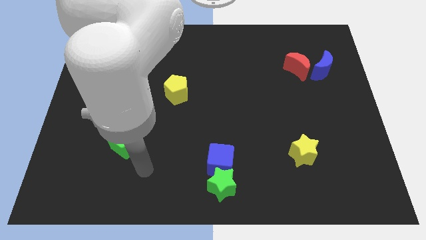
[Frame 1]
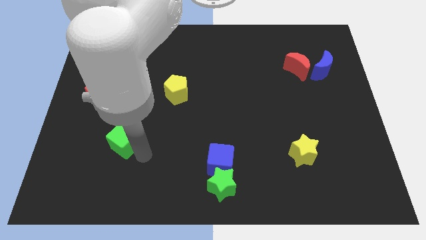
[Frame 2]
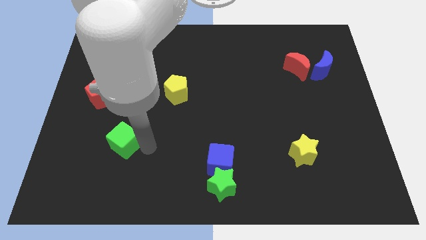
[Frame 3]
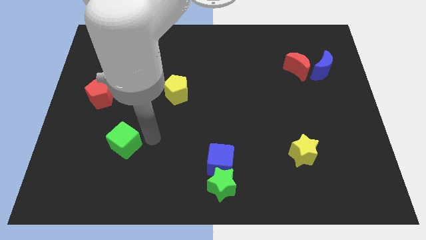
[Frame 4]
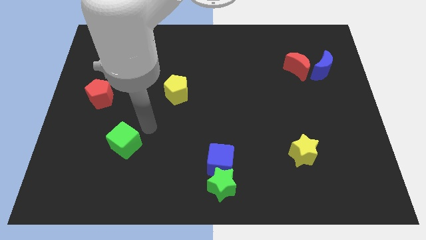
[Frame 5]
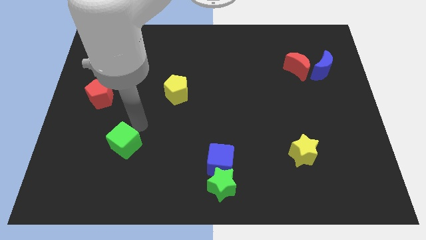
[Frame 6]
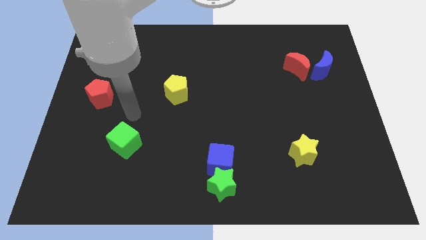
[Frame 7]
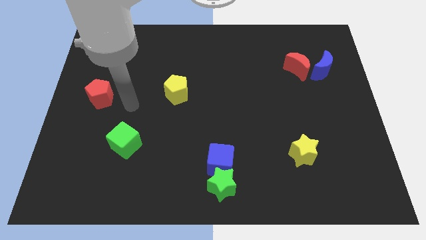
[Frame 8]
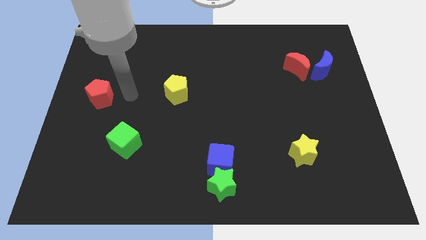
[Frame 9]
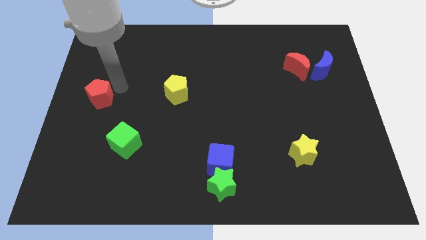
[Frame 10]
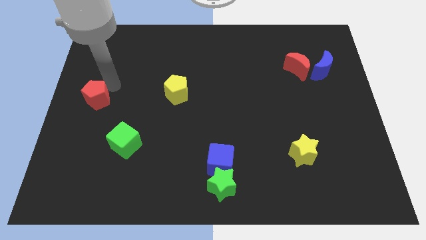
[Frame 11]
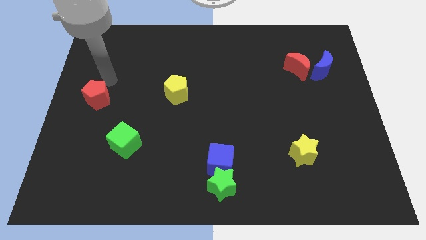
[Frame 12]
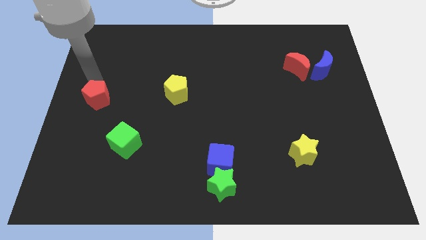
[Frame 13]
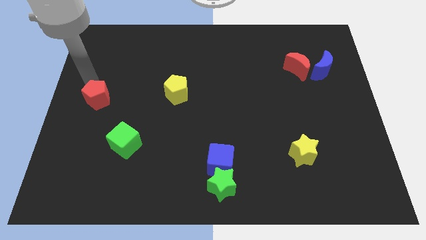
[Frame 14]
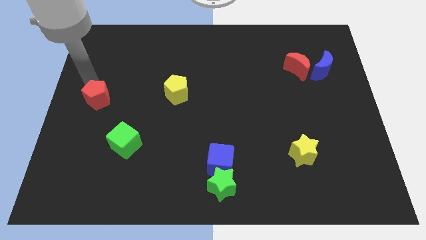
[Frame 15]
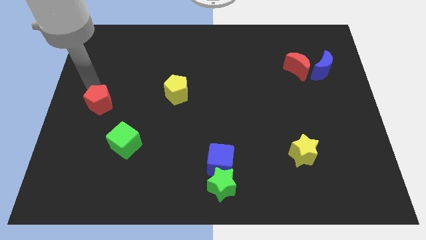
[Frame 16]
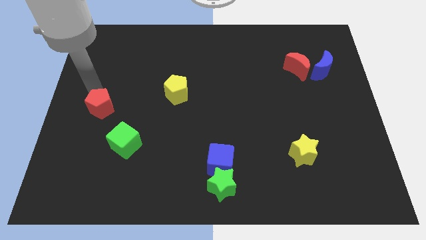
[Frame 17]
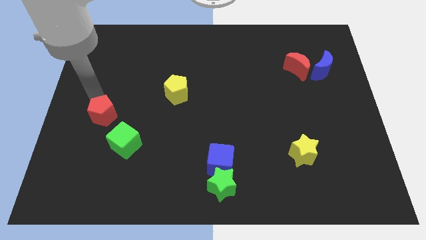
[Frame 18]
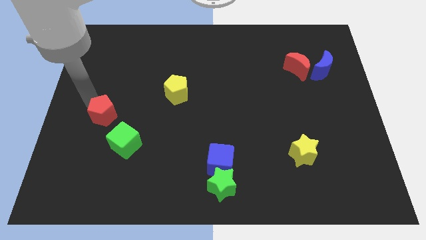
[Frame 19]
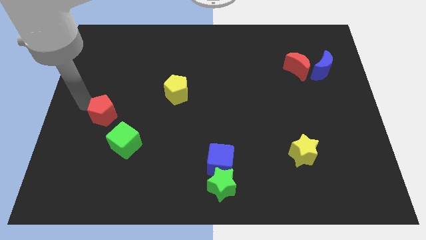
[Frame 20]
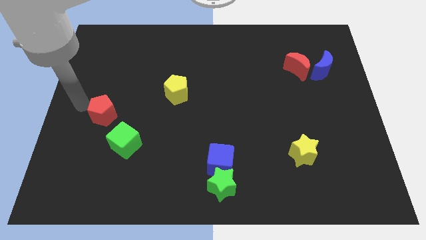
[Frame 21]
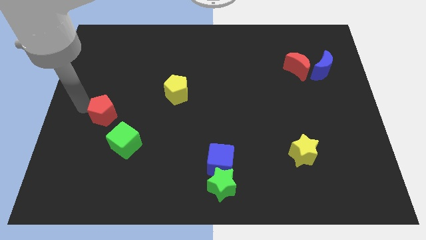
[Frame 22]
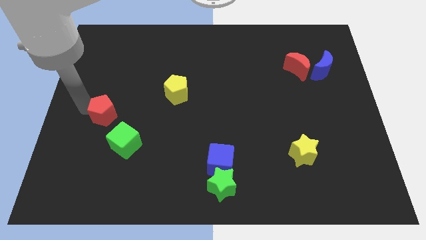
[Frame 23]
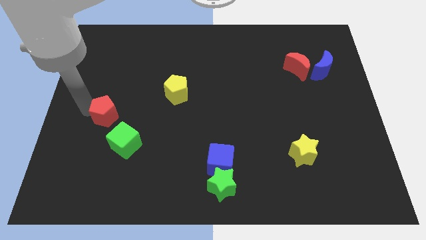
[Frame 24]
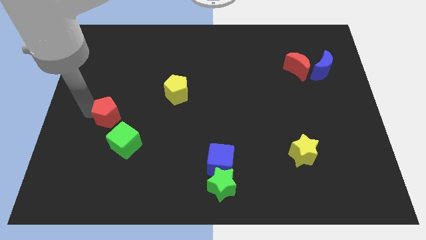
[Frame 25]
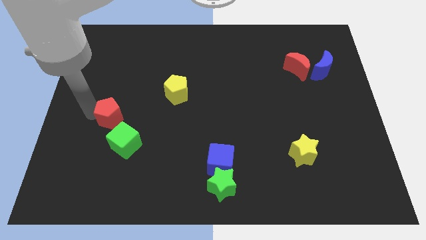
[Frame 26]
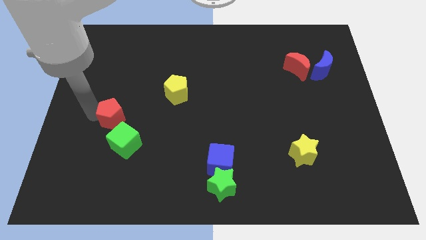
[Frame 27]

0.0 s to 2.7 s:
slightly move the red pentagon diagonally downwards and right

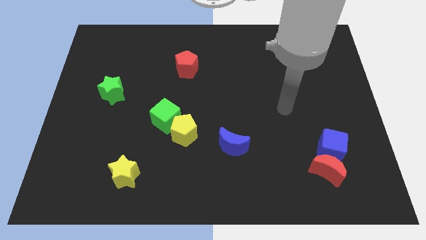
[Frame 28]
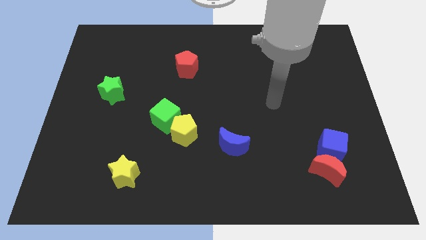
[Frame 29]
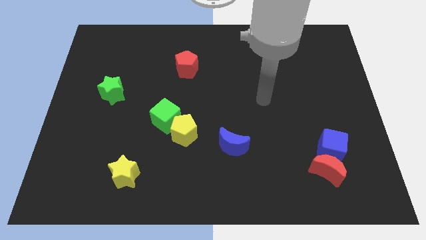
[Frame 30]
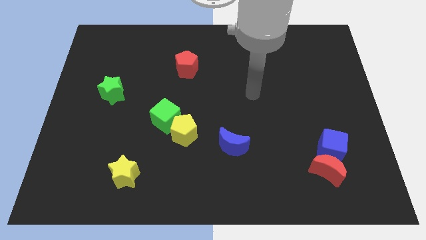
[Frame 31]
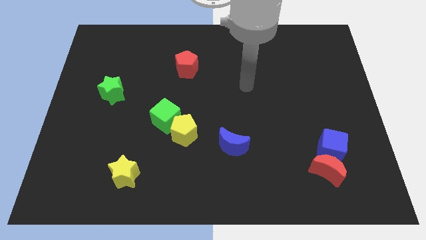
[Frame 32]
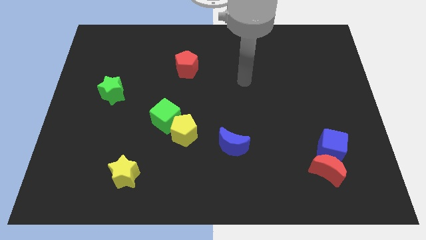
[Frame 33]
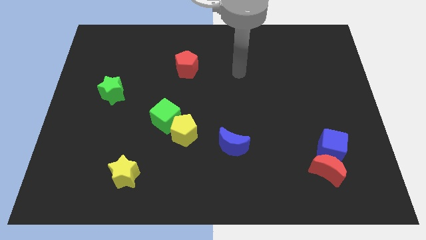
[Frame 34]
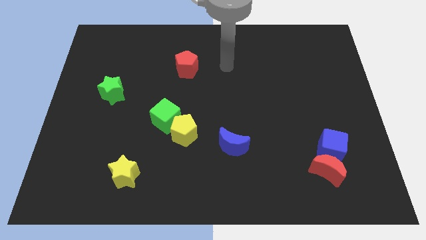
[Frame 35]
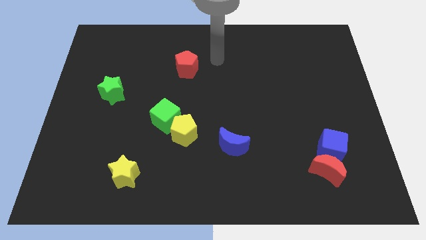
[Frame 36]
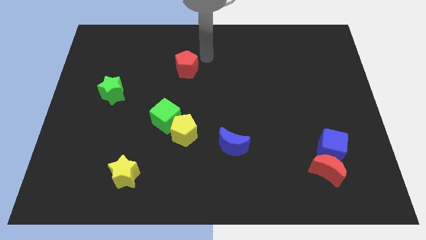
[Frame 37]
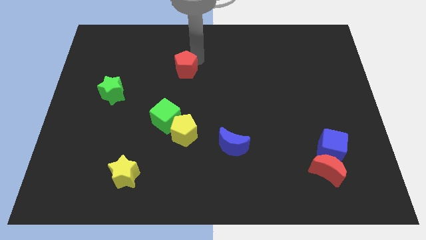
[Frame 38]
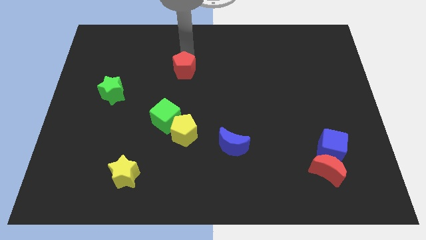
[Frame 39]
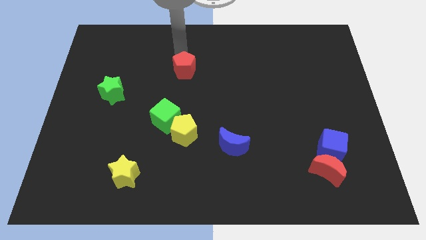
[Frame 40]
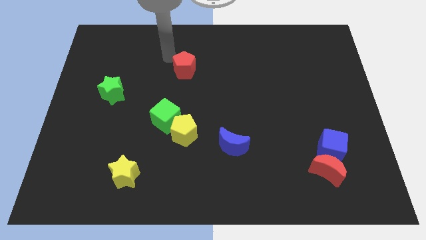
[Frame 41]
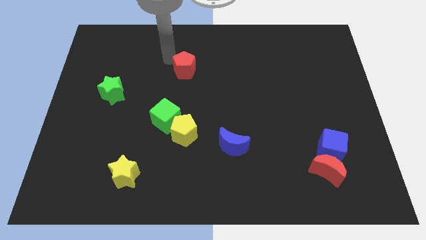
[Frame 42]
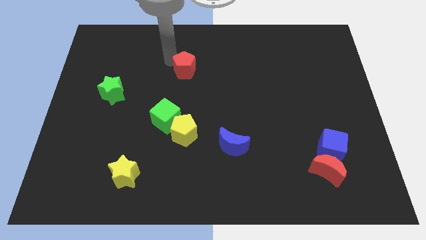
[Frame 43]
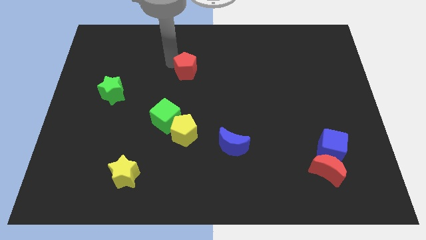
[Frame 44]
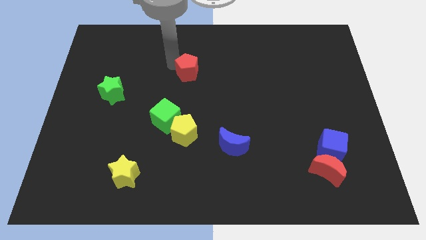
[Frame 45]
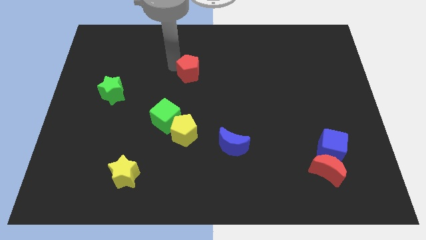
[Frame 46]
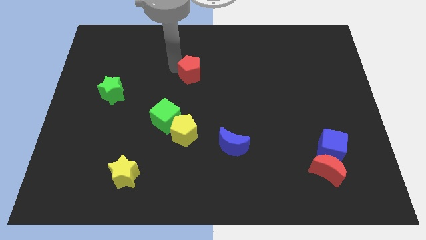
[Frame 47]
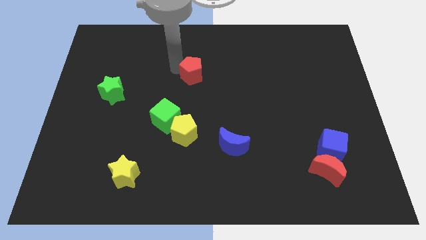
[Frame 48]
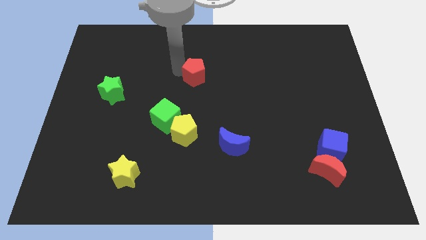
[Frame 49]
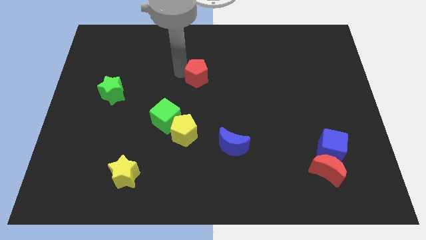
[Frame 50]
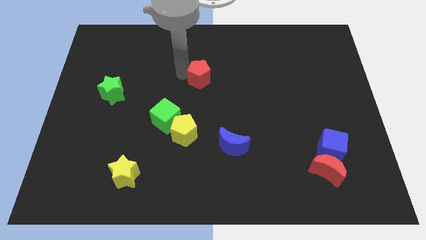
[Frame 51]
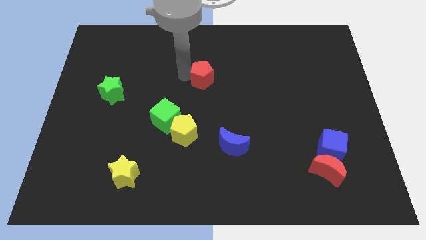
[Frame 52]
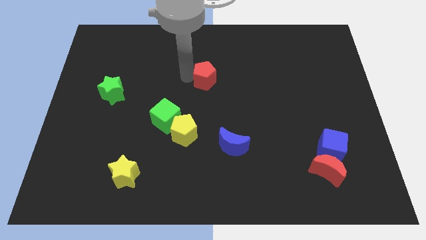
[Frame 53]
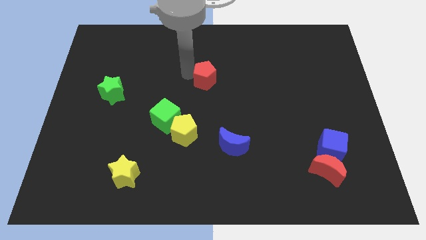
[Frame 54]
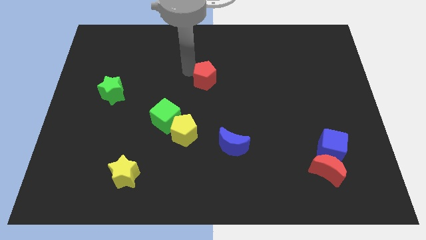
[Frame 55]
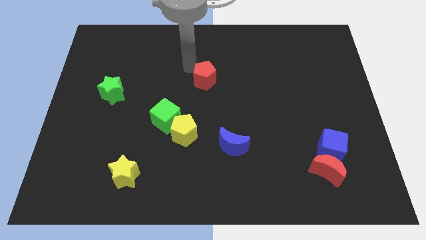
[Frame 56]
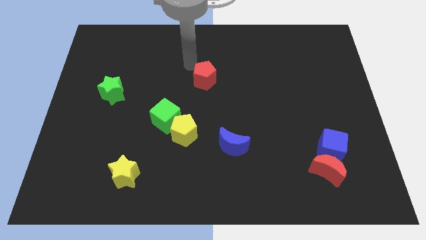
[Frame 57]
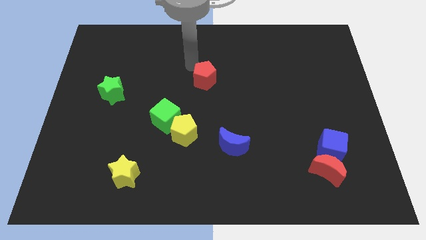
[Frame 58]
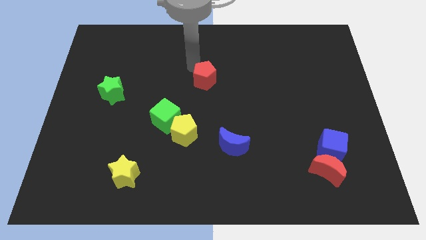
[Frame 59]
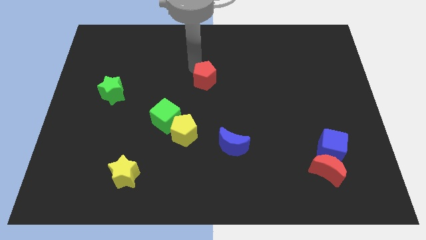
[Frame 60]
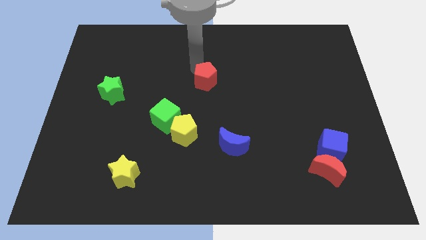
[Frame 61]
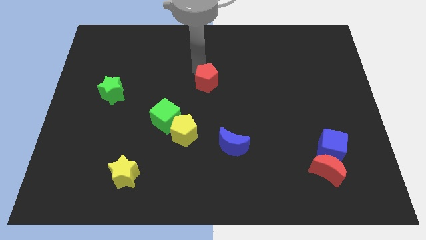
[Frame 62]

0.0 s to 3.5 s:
slightly move the red pentagon diagonally down and to the right

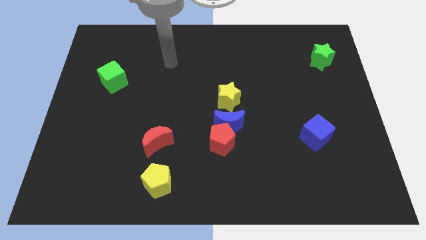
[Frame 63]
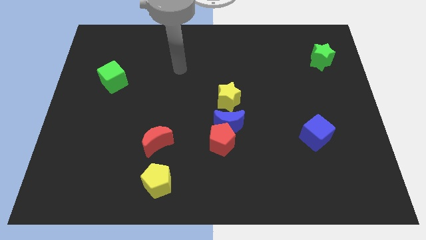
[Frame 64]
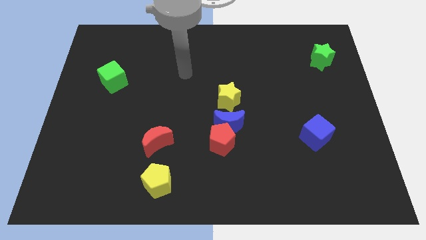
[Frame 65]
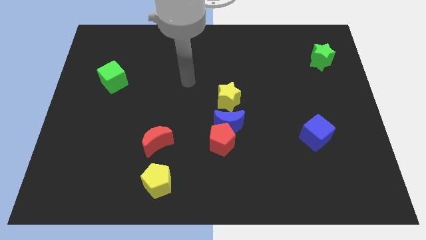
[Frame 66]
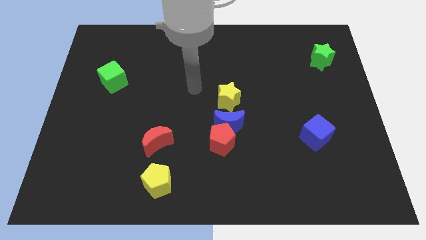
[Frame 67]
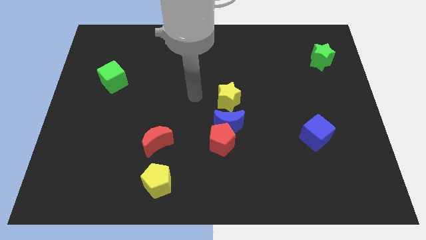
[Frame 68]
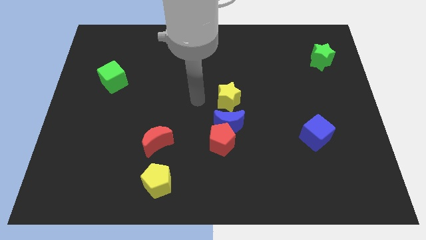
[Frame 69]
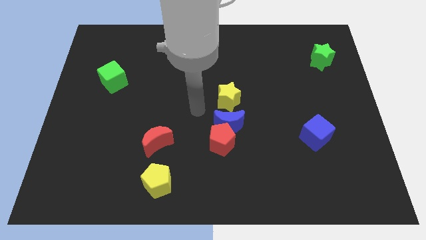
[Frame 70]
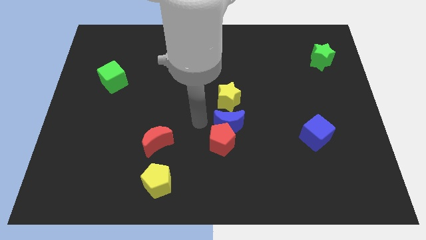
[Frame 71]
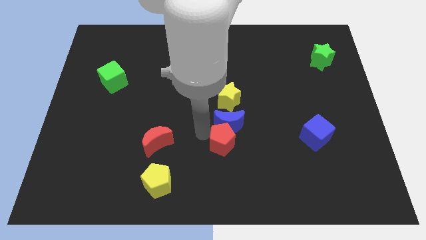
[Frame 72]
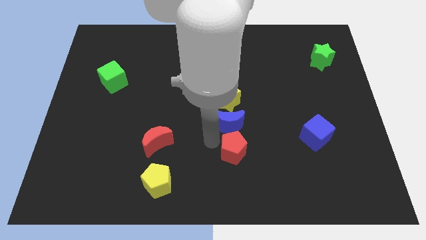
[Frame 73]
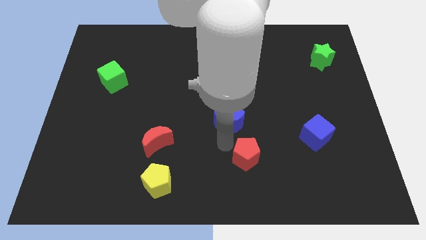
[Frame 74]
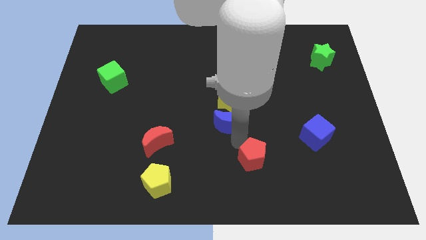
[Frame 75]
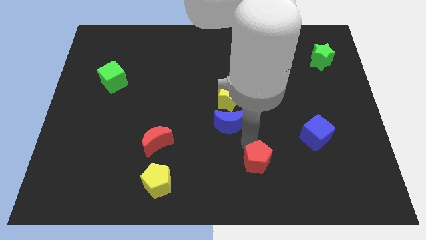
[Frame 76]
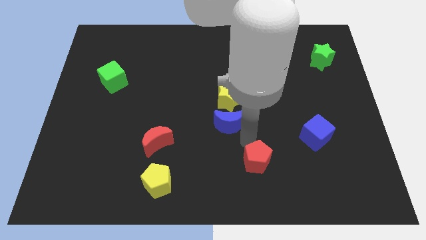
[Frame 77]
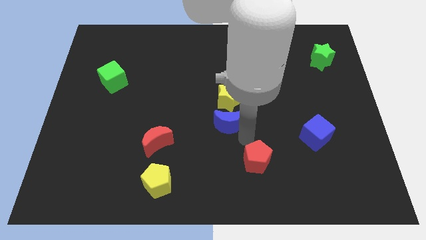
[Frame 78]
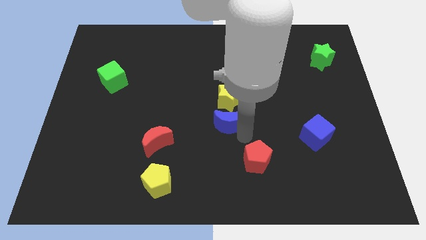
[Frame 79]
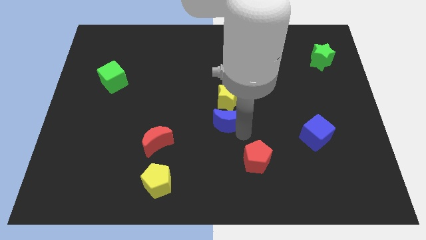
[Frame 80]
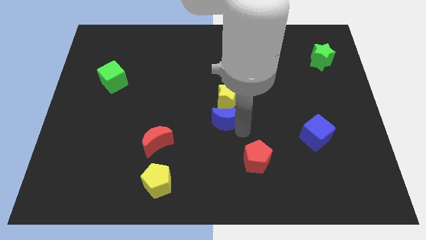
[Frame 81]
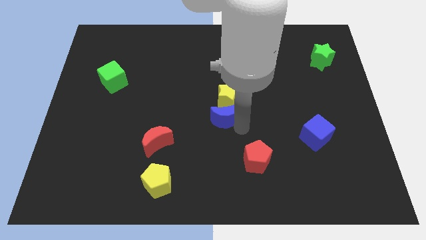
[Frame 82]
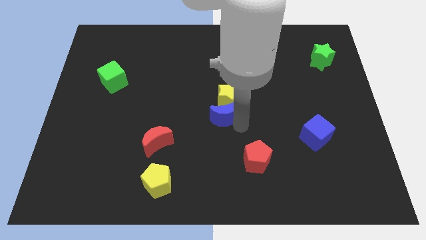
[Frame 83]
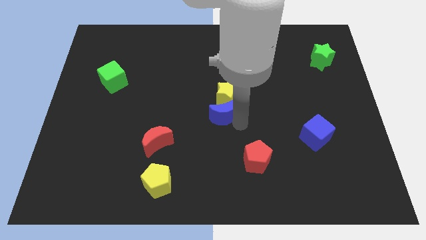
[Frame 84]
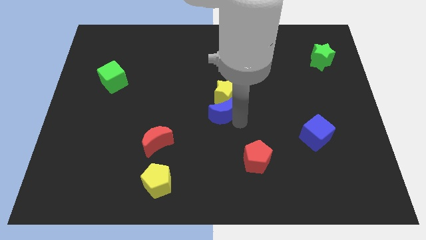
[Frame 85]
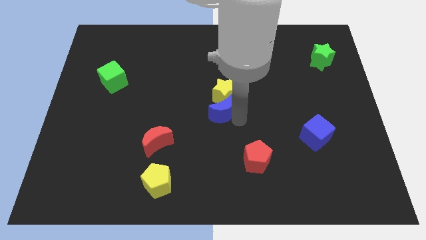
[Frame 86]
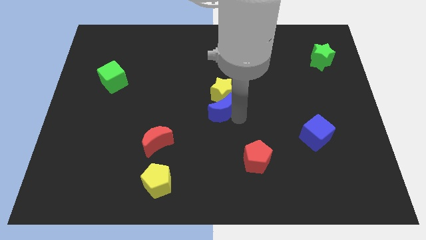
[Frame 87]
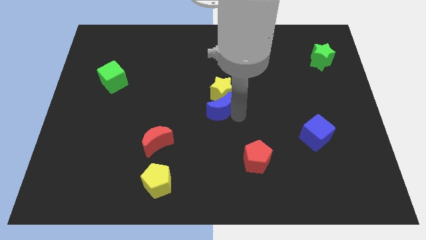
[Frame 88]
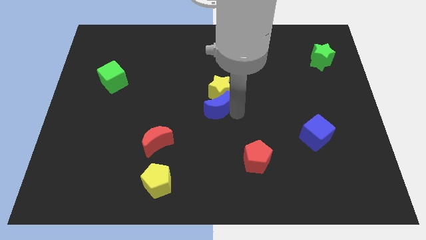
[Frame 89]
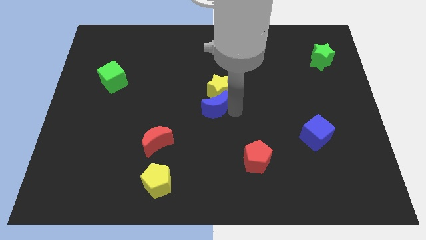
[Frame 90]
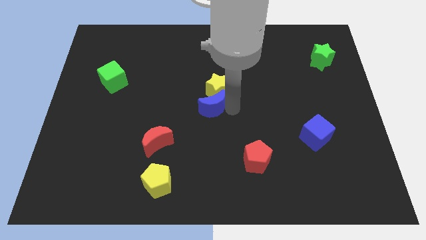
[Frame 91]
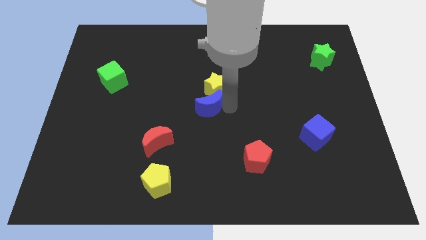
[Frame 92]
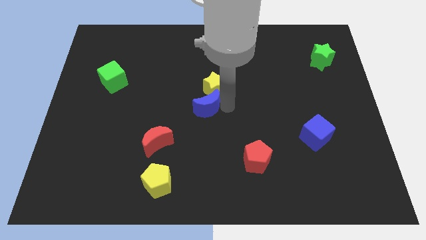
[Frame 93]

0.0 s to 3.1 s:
slightly move the blue moon up and left diagonally
